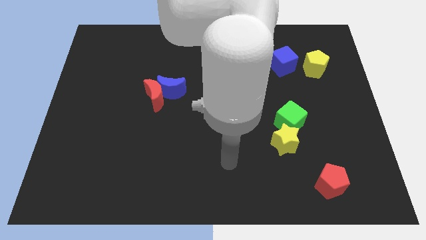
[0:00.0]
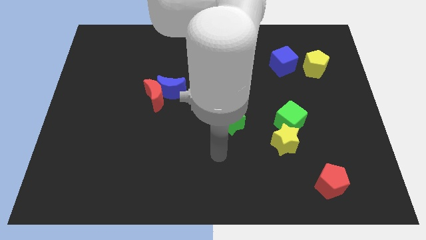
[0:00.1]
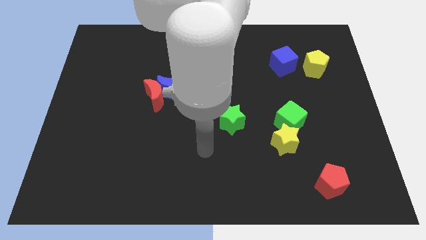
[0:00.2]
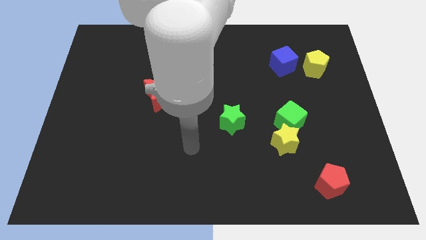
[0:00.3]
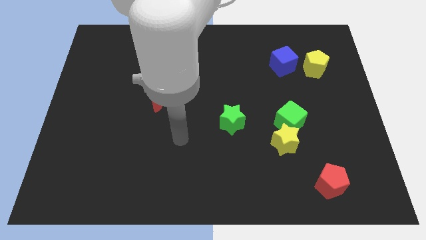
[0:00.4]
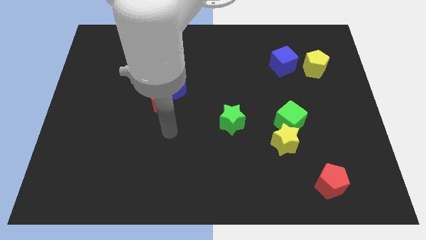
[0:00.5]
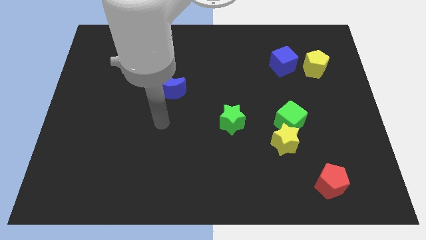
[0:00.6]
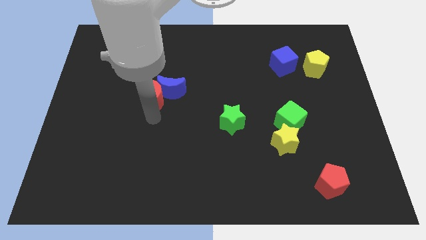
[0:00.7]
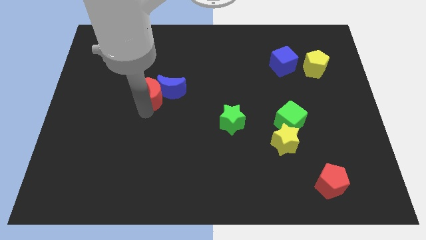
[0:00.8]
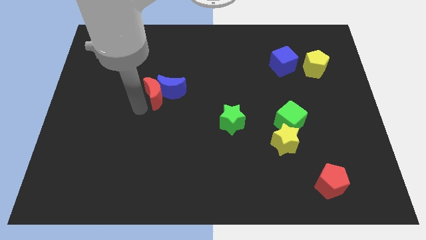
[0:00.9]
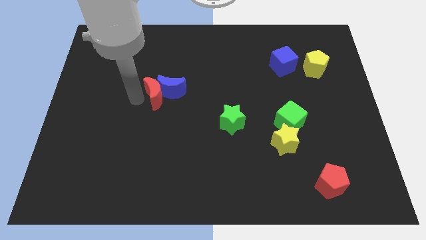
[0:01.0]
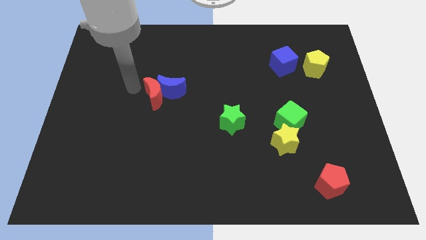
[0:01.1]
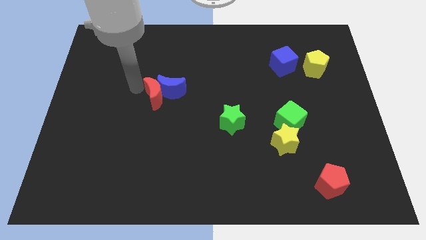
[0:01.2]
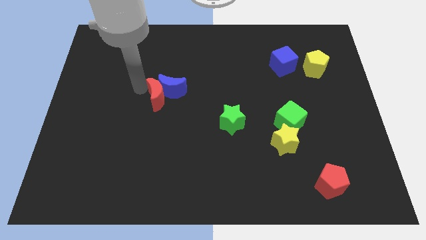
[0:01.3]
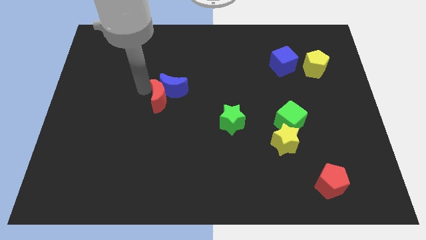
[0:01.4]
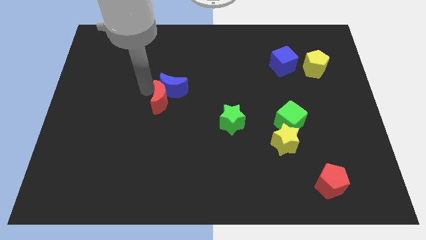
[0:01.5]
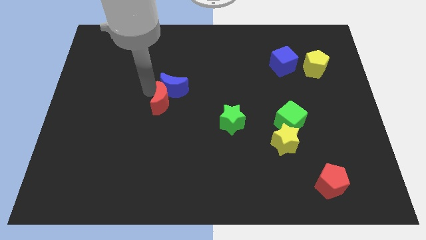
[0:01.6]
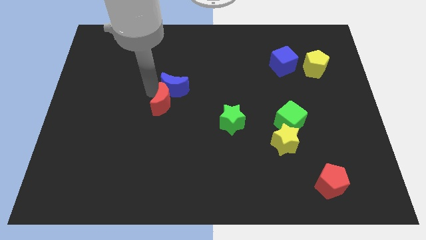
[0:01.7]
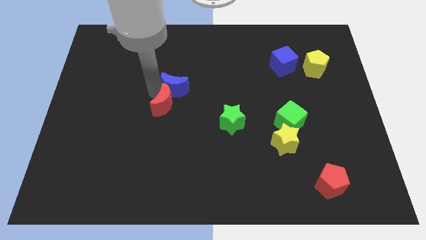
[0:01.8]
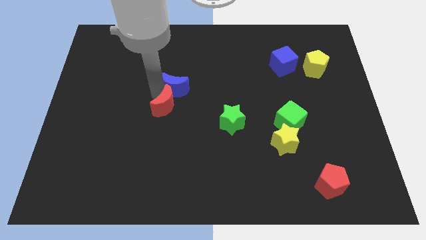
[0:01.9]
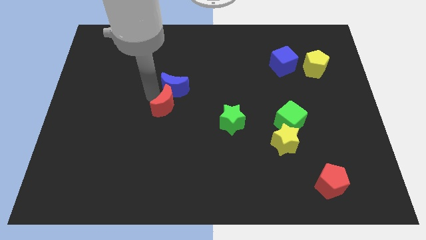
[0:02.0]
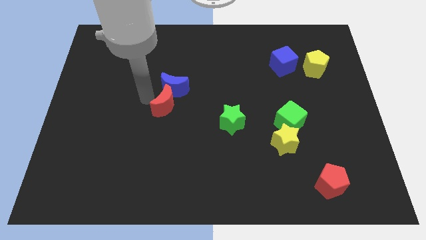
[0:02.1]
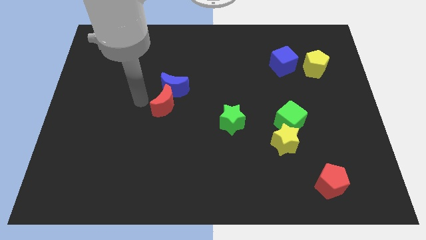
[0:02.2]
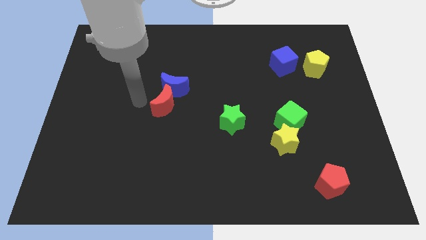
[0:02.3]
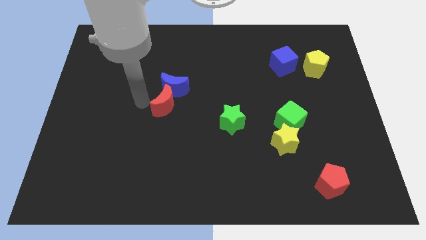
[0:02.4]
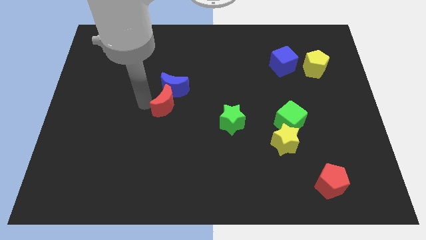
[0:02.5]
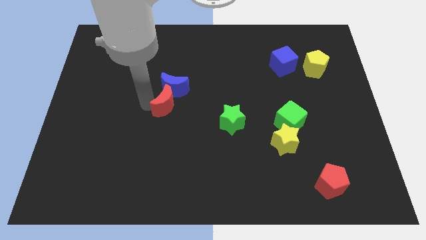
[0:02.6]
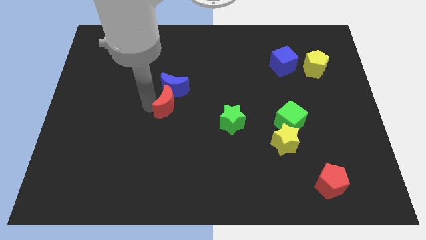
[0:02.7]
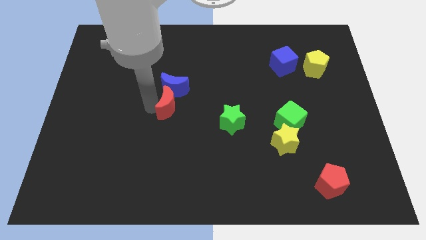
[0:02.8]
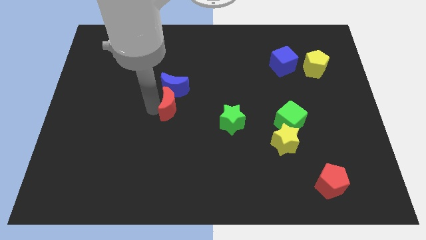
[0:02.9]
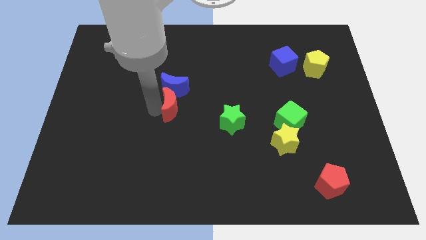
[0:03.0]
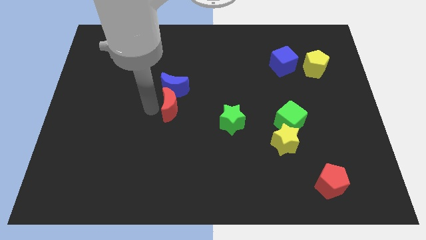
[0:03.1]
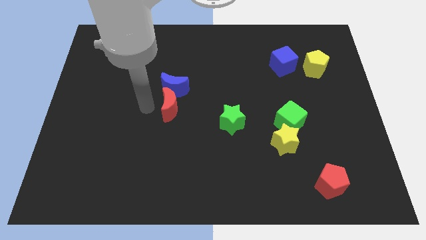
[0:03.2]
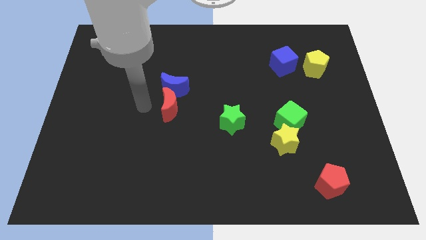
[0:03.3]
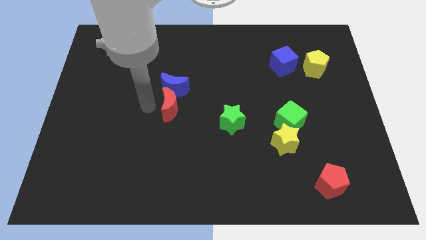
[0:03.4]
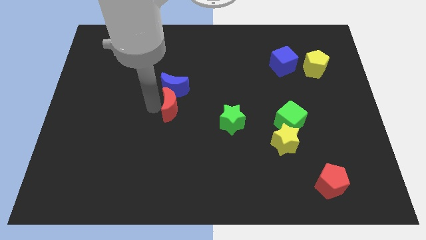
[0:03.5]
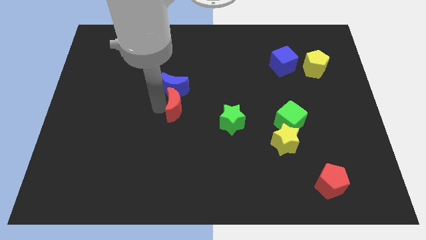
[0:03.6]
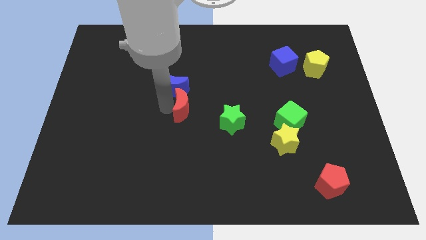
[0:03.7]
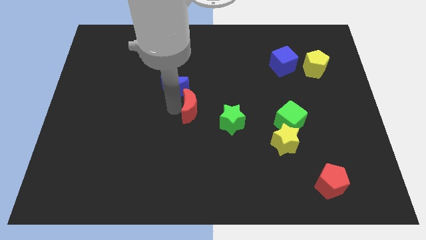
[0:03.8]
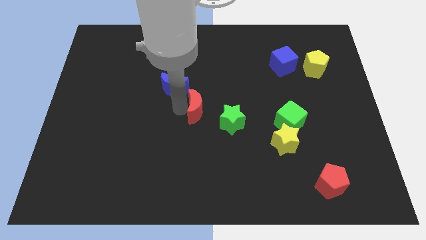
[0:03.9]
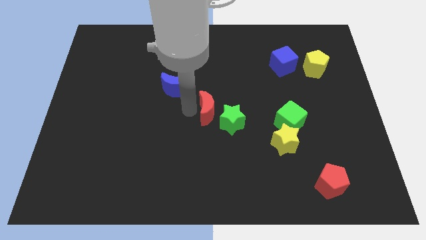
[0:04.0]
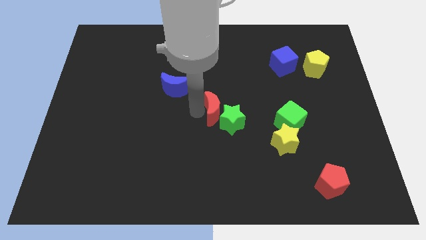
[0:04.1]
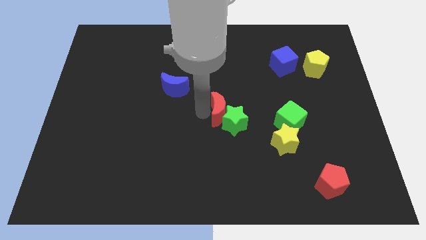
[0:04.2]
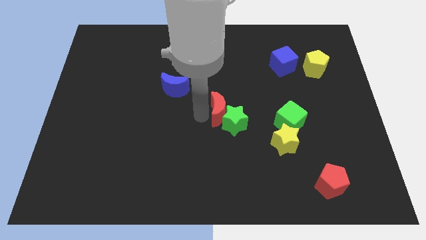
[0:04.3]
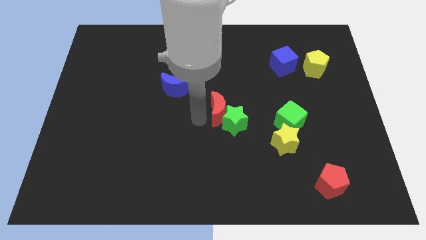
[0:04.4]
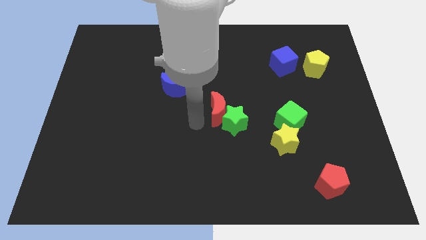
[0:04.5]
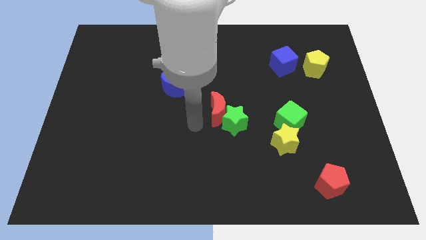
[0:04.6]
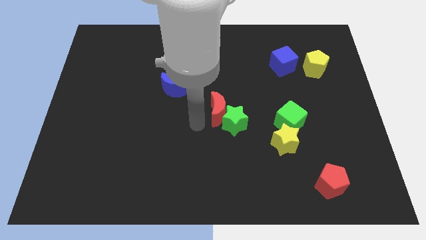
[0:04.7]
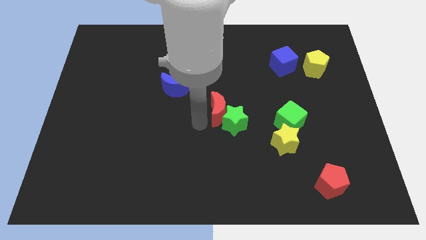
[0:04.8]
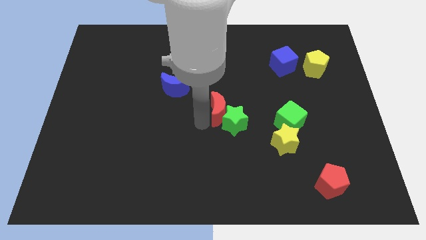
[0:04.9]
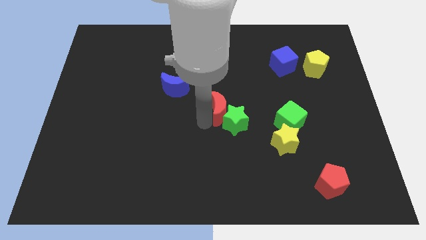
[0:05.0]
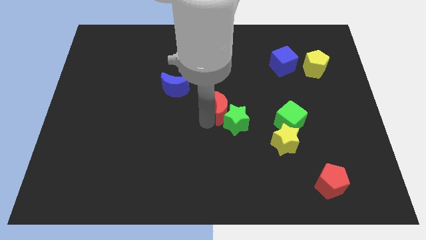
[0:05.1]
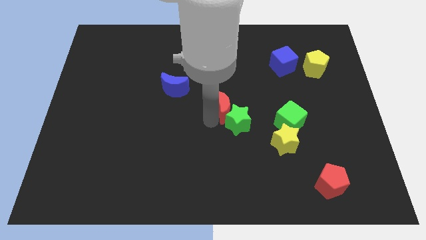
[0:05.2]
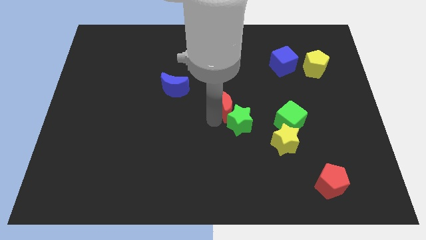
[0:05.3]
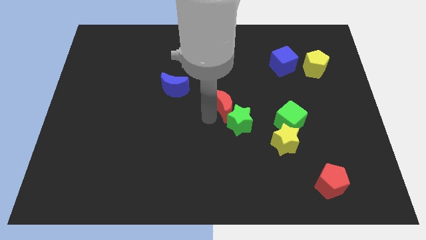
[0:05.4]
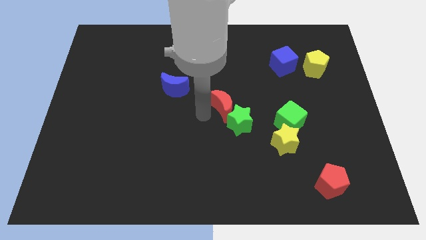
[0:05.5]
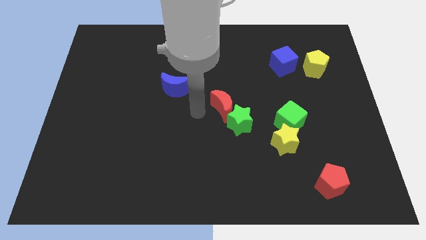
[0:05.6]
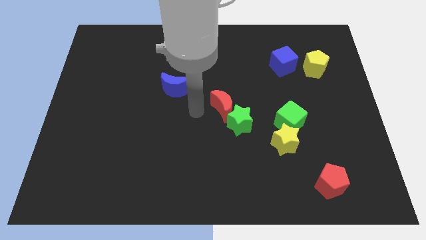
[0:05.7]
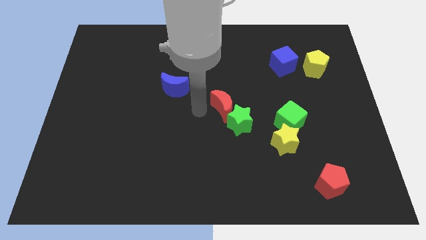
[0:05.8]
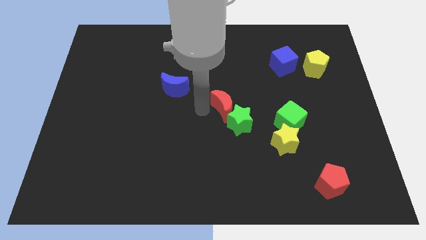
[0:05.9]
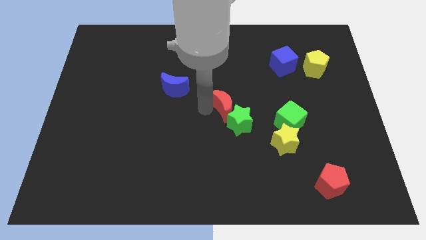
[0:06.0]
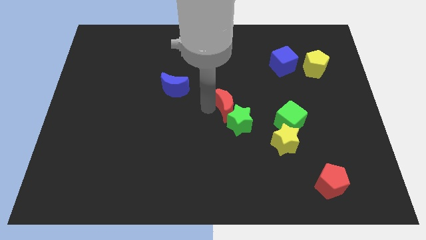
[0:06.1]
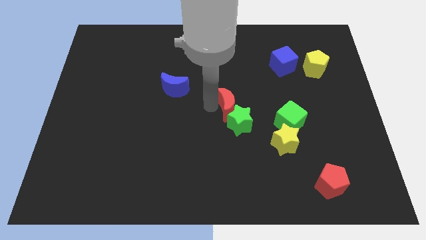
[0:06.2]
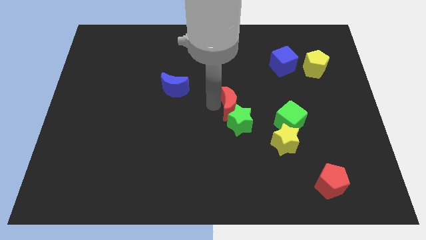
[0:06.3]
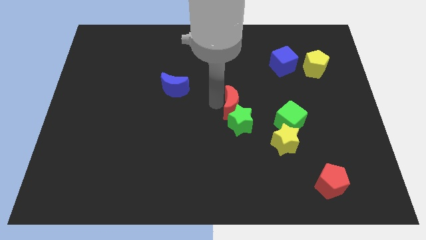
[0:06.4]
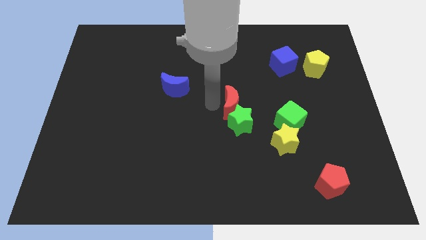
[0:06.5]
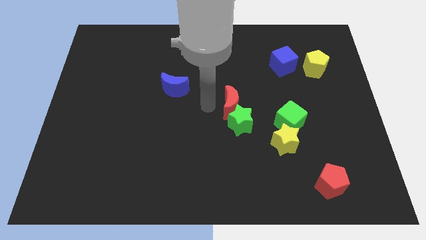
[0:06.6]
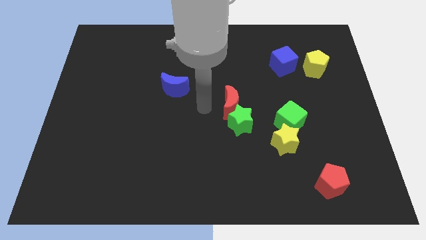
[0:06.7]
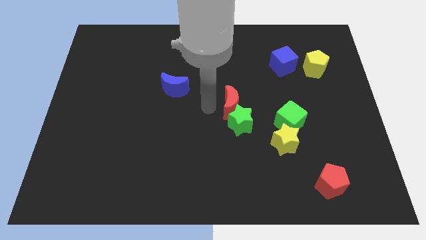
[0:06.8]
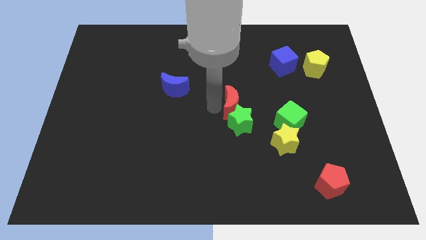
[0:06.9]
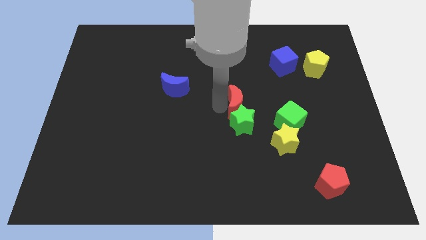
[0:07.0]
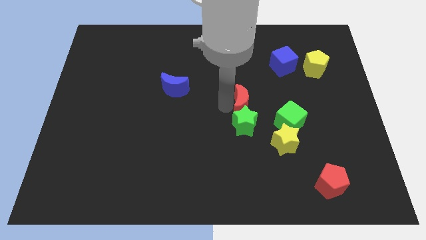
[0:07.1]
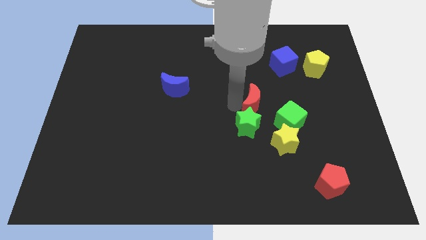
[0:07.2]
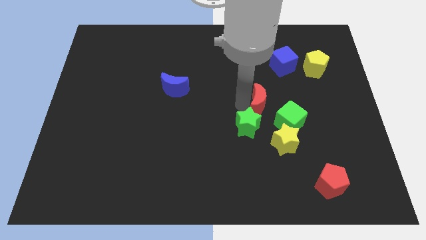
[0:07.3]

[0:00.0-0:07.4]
put the red moon to the top of the yellow star
